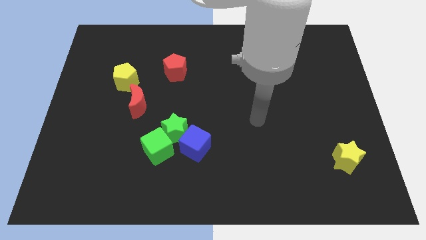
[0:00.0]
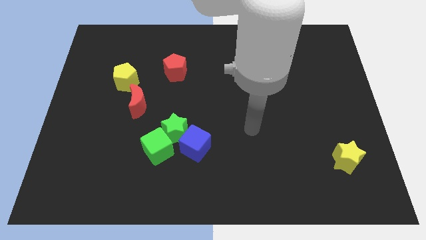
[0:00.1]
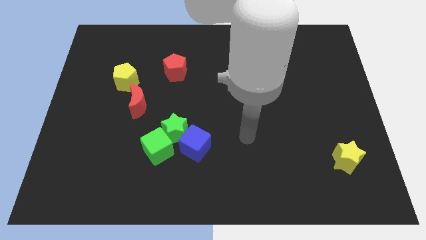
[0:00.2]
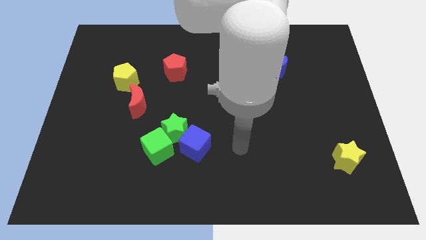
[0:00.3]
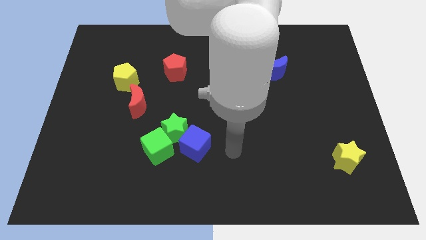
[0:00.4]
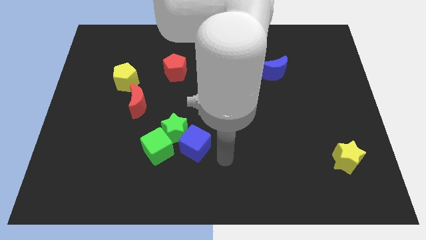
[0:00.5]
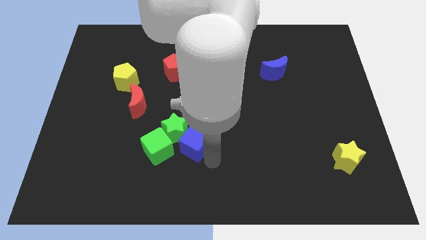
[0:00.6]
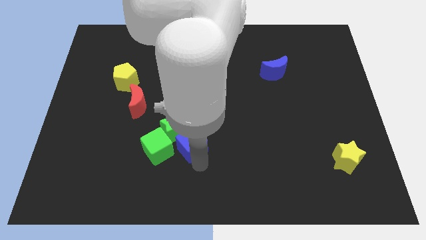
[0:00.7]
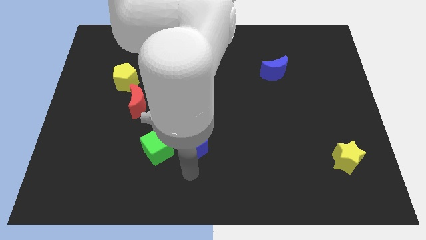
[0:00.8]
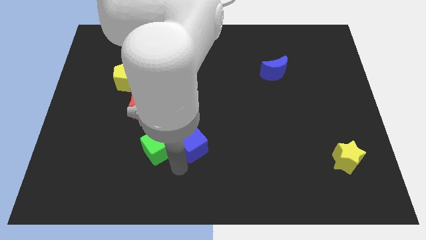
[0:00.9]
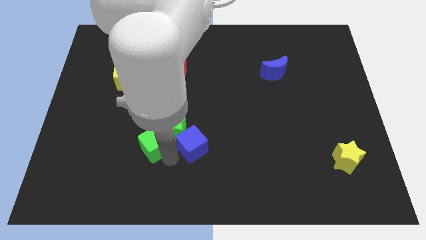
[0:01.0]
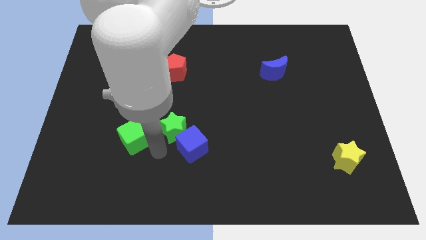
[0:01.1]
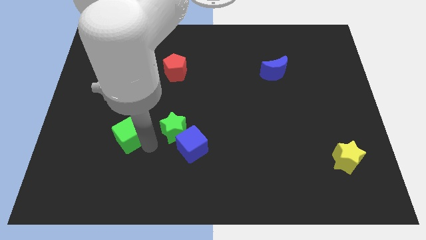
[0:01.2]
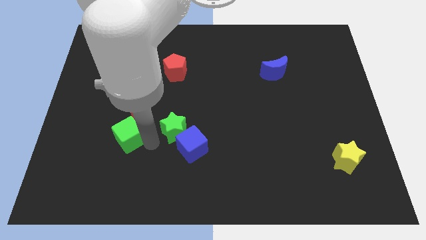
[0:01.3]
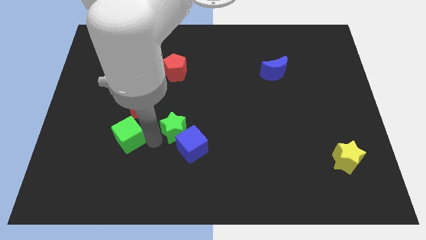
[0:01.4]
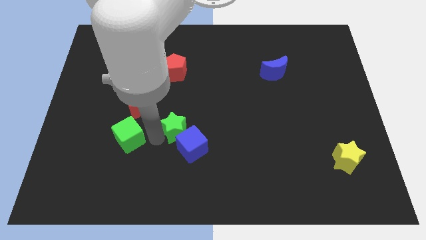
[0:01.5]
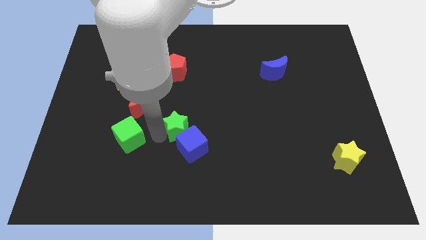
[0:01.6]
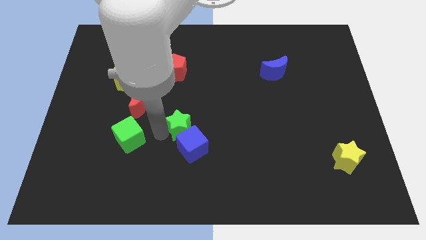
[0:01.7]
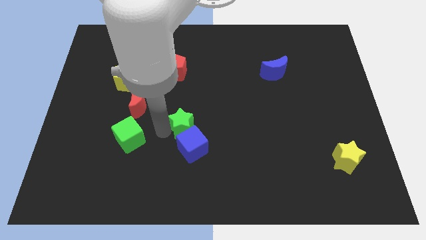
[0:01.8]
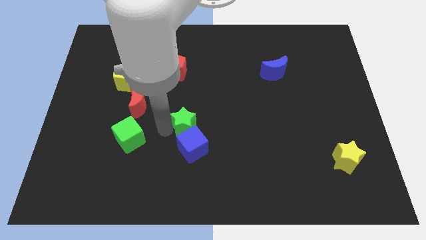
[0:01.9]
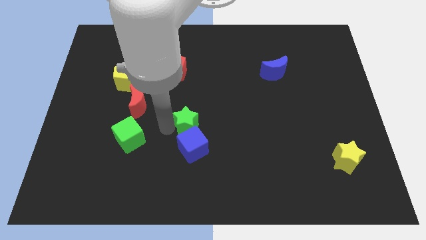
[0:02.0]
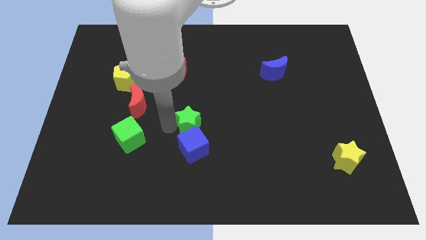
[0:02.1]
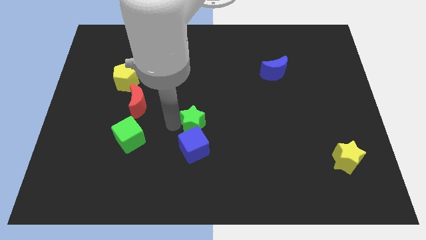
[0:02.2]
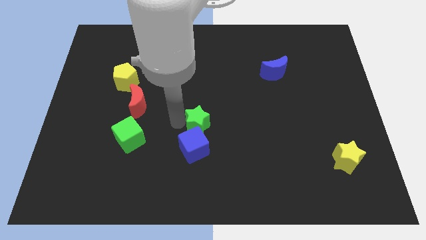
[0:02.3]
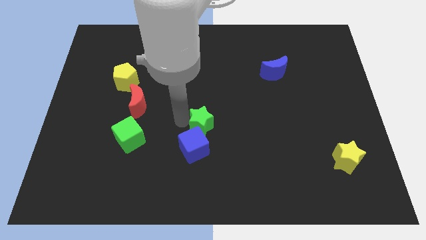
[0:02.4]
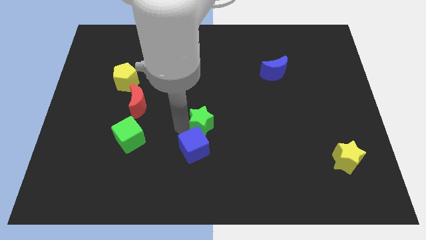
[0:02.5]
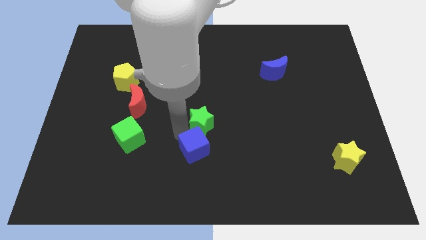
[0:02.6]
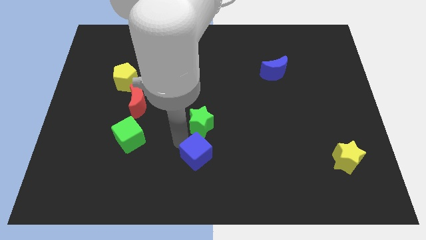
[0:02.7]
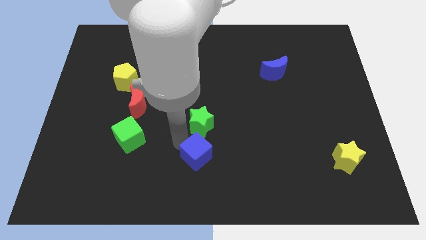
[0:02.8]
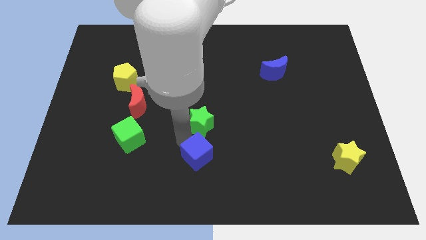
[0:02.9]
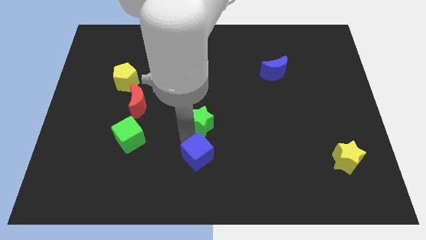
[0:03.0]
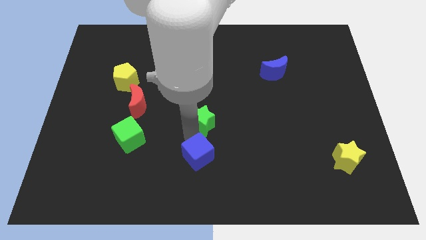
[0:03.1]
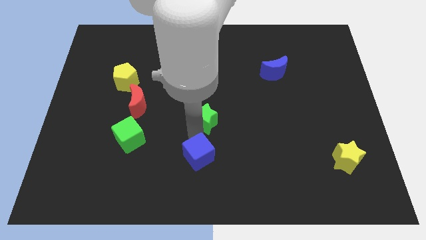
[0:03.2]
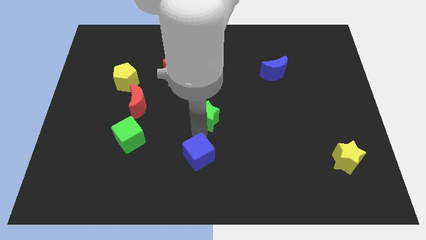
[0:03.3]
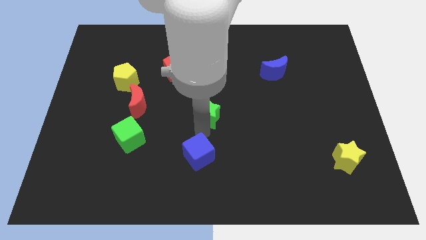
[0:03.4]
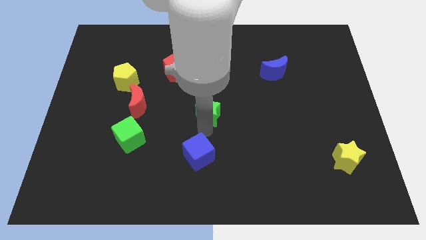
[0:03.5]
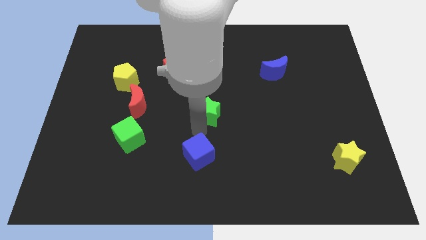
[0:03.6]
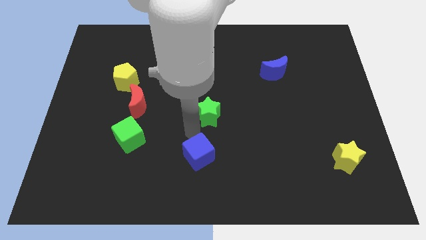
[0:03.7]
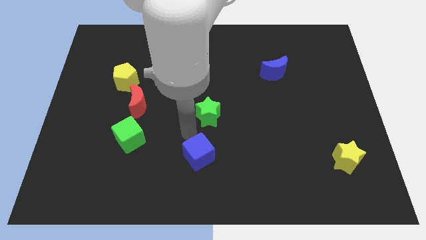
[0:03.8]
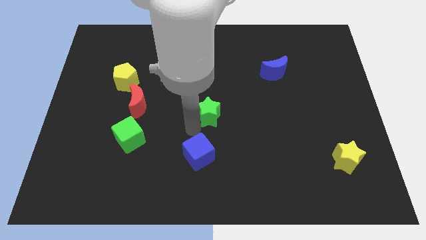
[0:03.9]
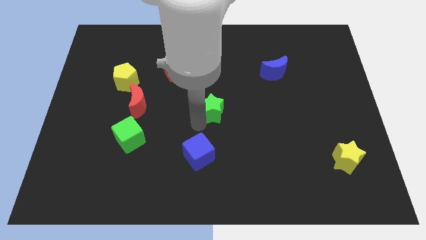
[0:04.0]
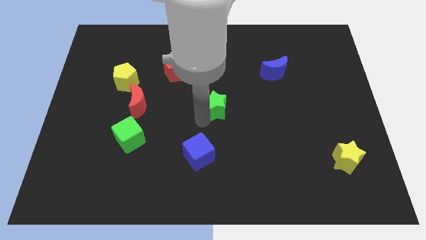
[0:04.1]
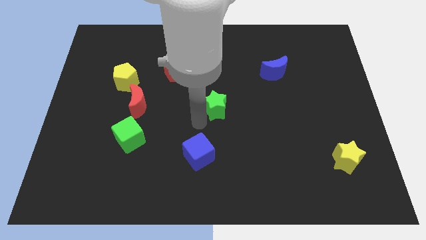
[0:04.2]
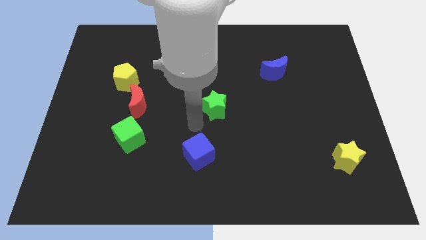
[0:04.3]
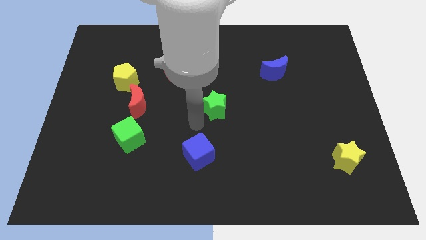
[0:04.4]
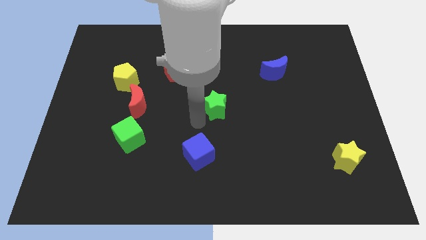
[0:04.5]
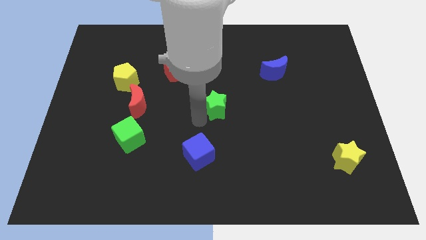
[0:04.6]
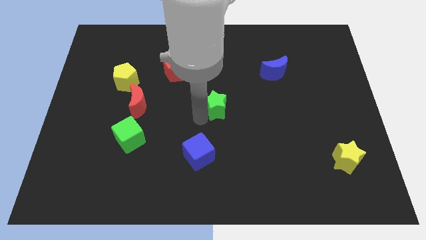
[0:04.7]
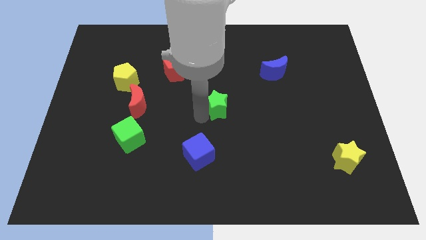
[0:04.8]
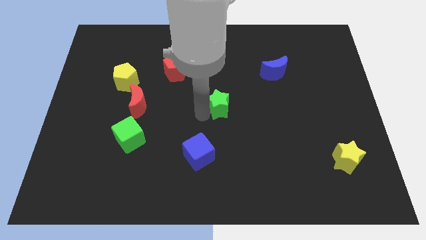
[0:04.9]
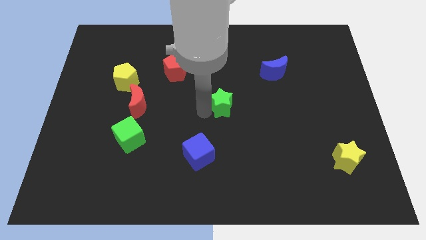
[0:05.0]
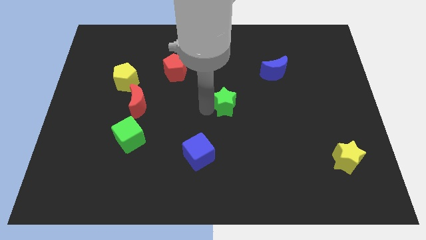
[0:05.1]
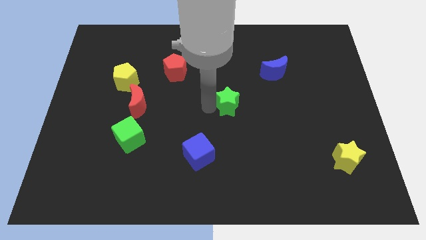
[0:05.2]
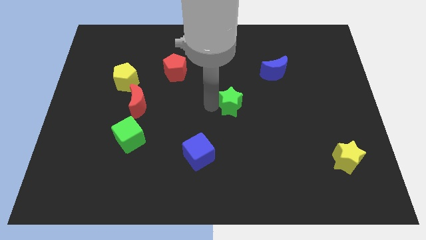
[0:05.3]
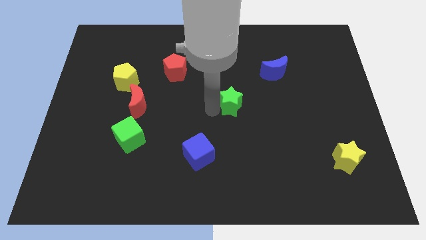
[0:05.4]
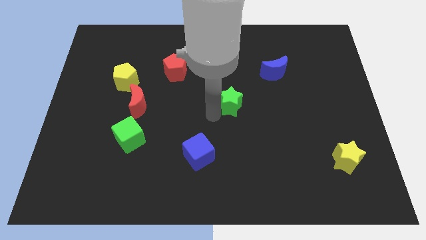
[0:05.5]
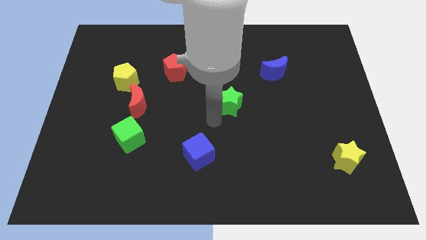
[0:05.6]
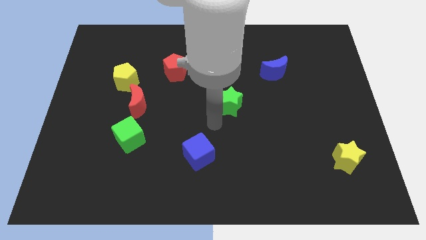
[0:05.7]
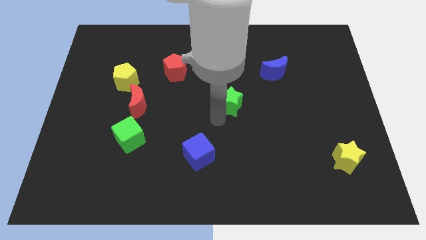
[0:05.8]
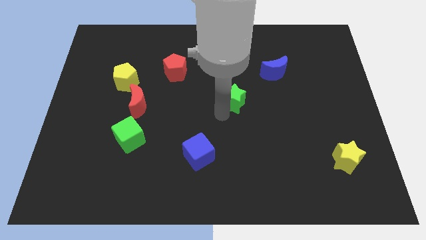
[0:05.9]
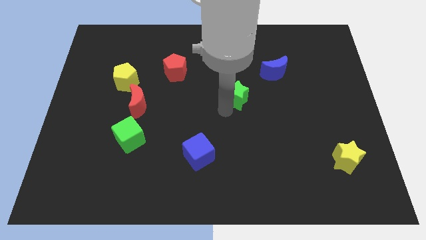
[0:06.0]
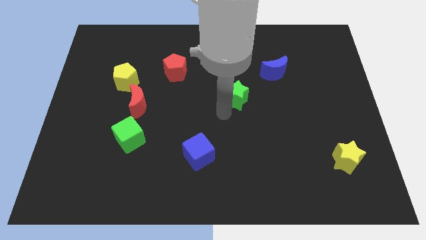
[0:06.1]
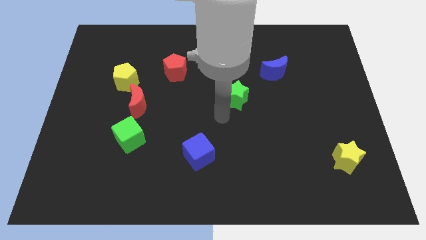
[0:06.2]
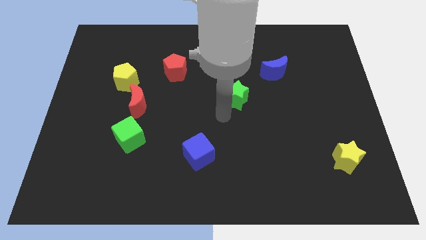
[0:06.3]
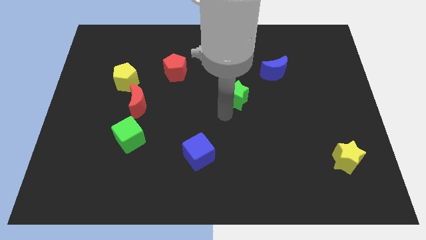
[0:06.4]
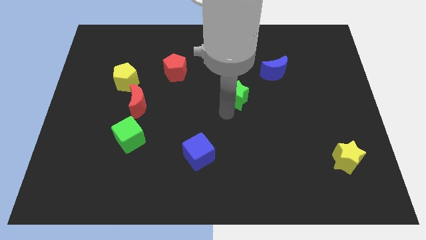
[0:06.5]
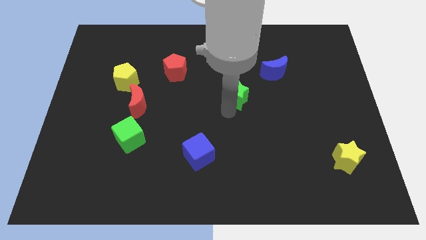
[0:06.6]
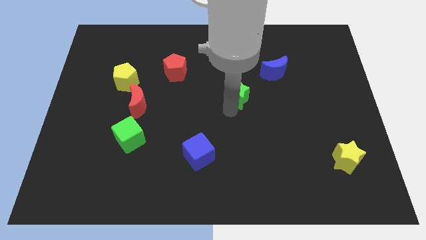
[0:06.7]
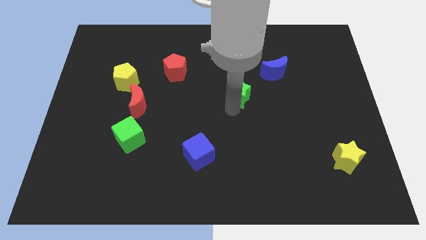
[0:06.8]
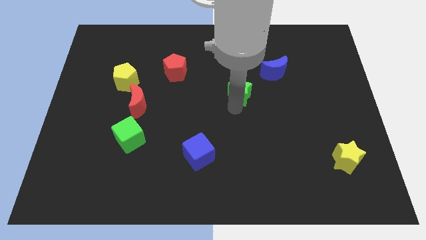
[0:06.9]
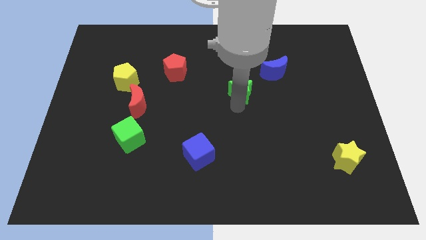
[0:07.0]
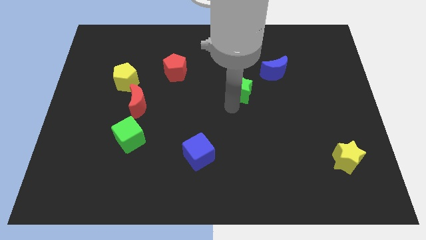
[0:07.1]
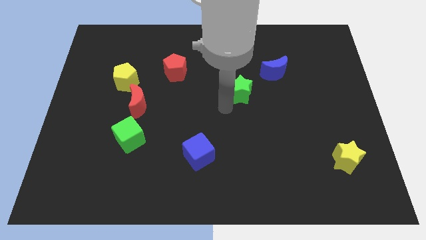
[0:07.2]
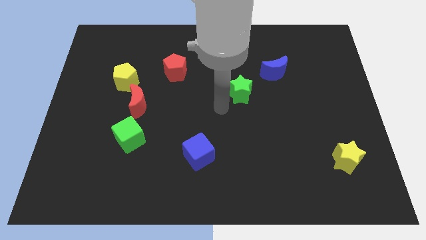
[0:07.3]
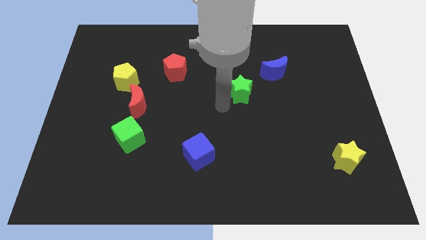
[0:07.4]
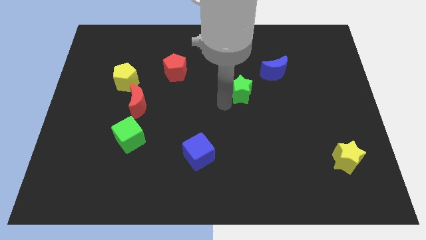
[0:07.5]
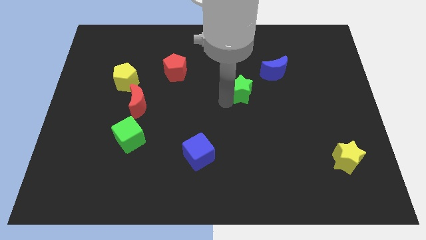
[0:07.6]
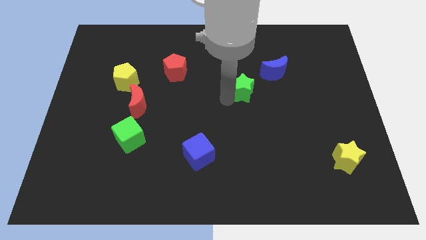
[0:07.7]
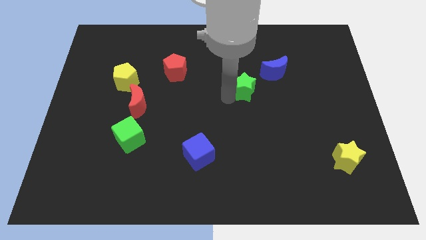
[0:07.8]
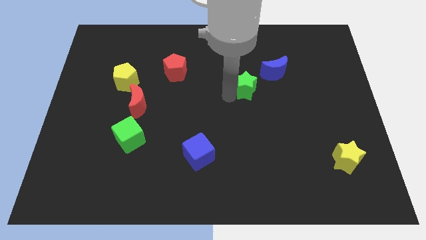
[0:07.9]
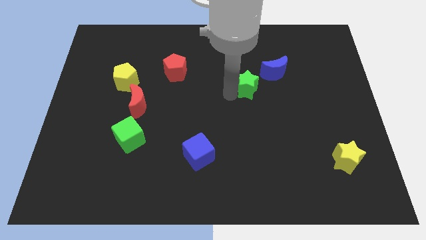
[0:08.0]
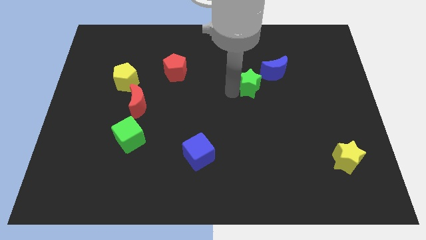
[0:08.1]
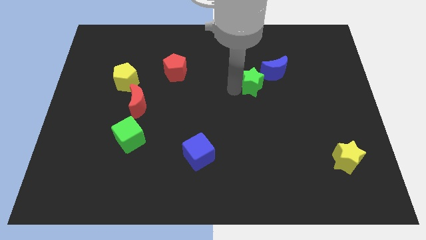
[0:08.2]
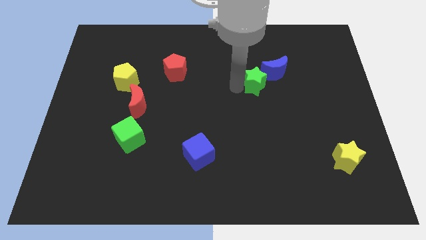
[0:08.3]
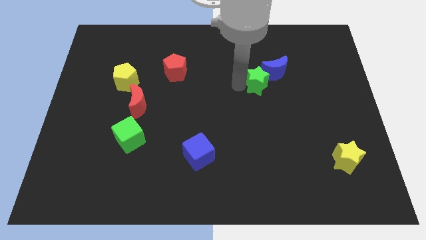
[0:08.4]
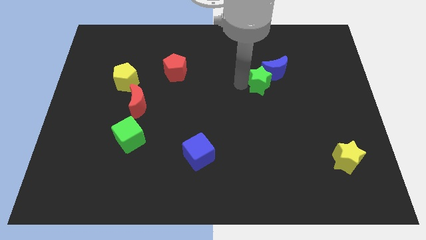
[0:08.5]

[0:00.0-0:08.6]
move the green star next to the blue moon
